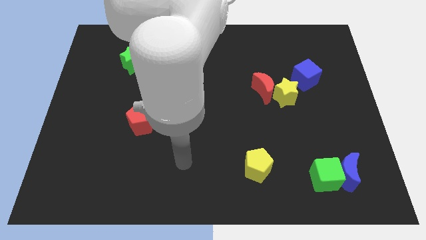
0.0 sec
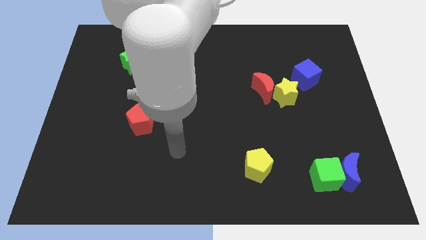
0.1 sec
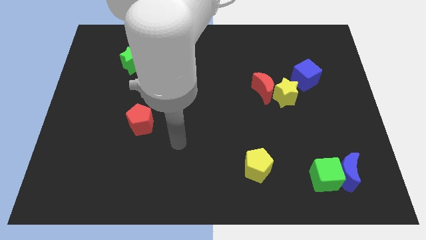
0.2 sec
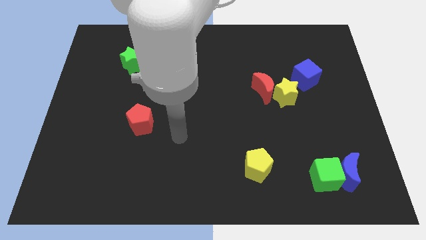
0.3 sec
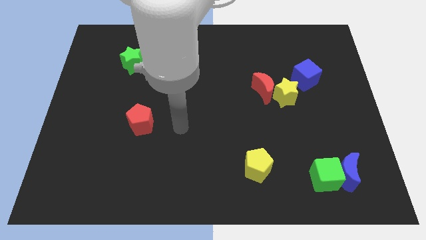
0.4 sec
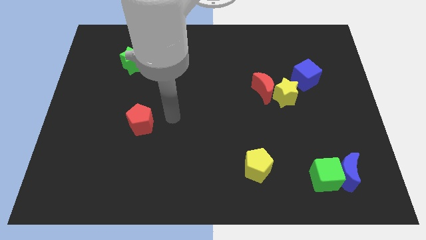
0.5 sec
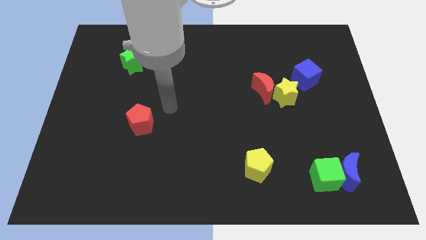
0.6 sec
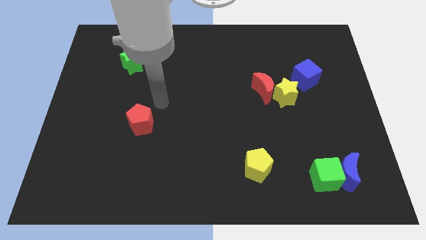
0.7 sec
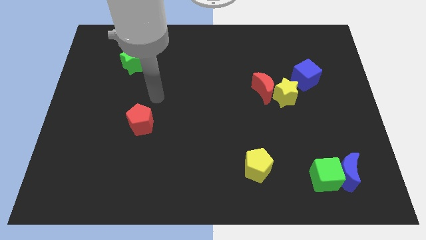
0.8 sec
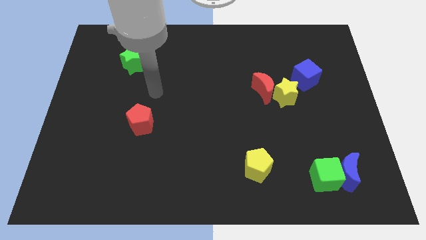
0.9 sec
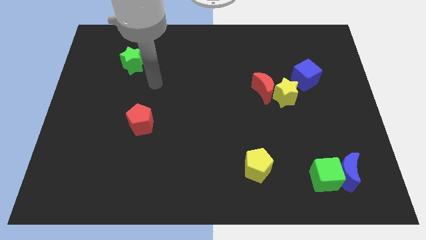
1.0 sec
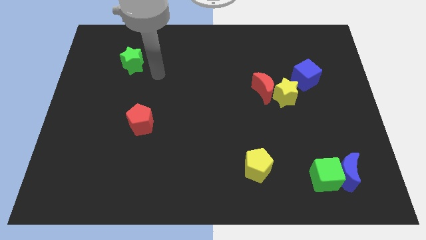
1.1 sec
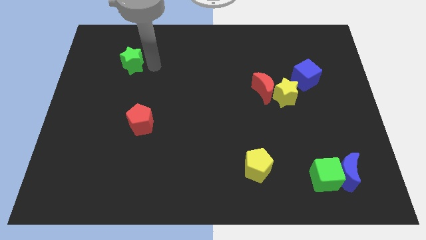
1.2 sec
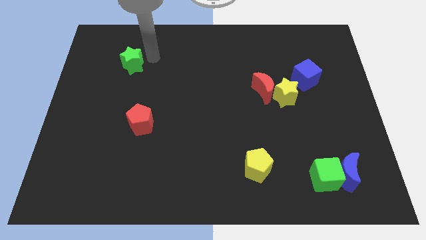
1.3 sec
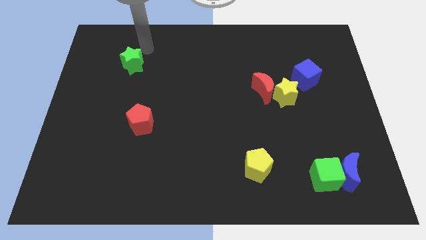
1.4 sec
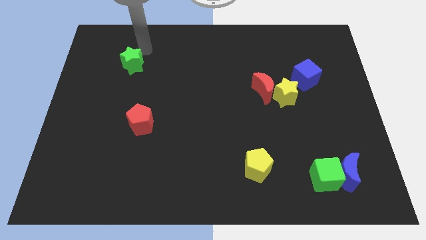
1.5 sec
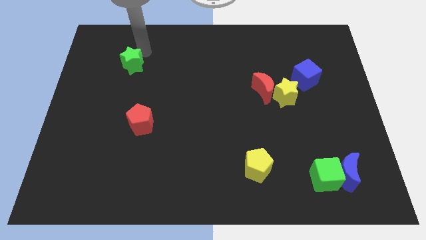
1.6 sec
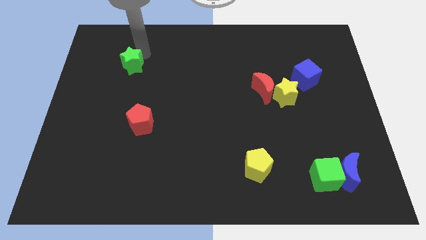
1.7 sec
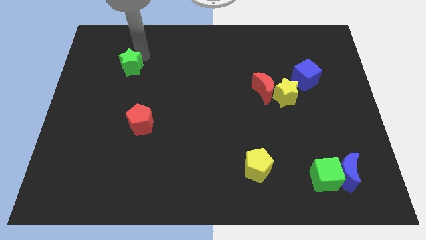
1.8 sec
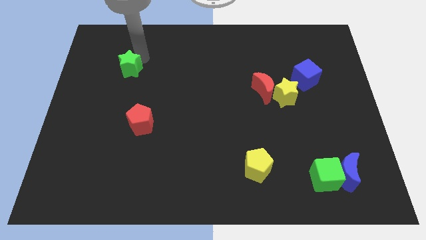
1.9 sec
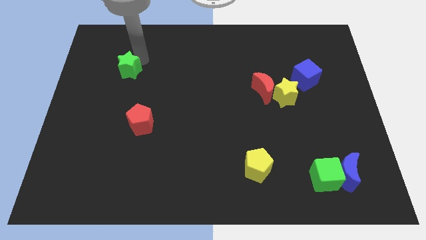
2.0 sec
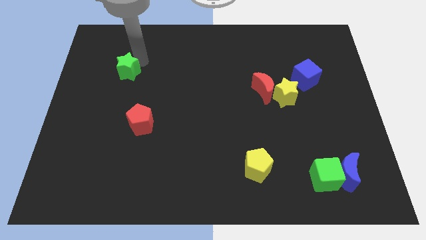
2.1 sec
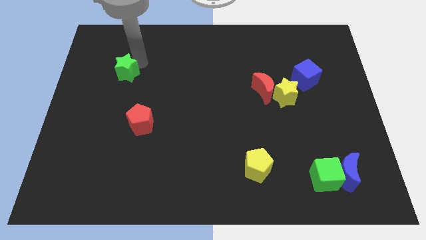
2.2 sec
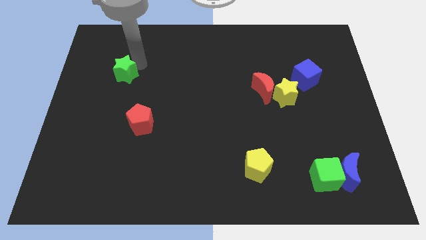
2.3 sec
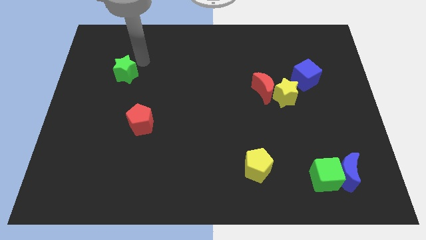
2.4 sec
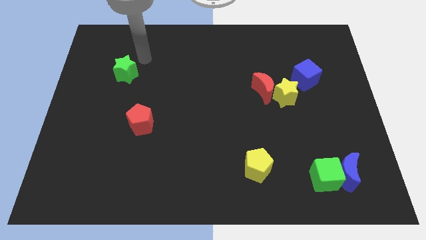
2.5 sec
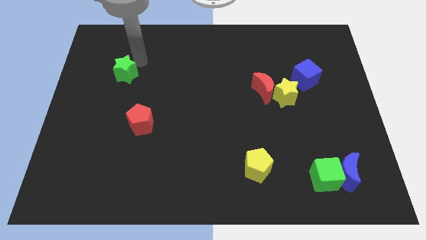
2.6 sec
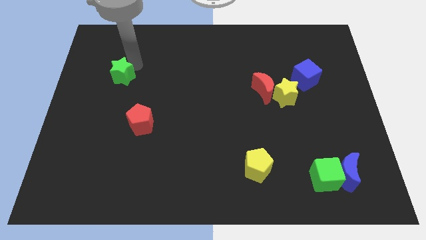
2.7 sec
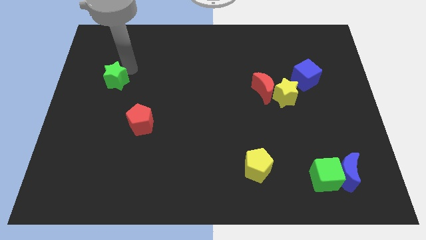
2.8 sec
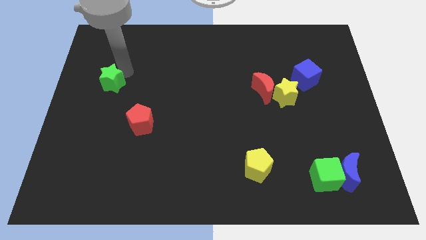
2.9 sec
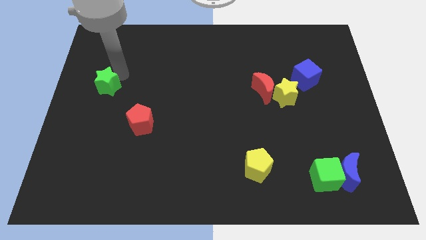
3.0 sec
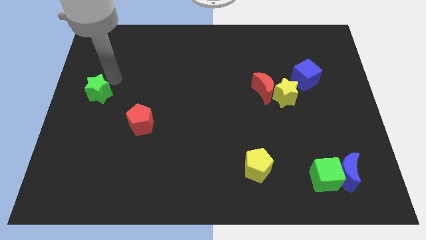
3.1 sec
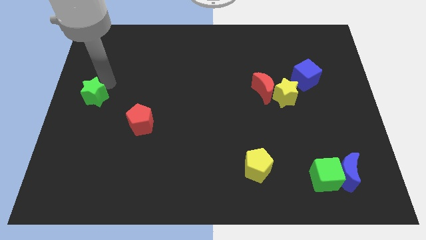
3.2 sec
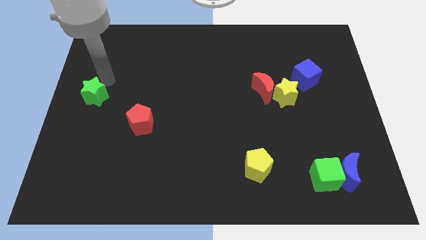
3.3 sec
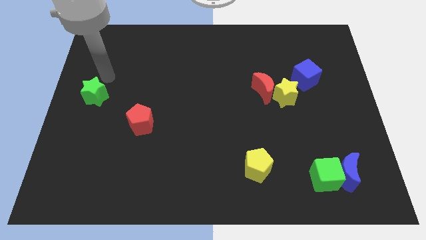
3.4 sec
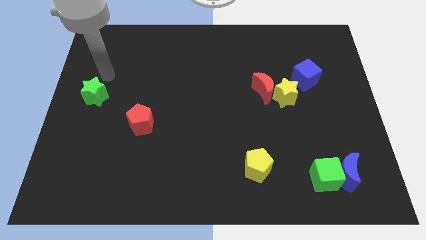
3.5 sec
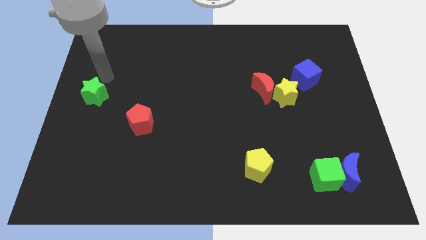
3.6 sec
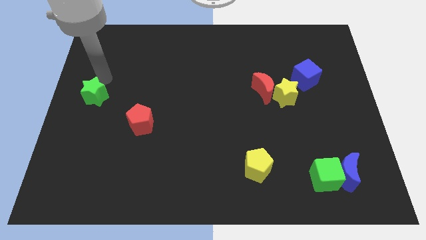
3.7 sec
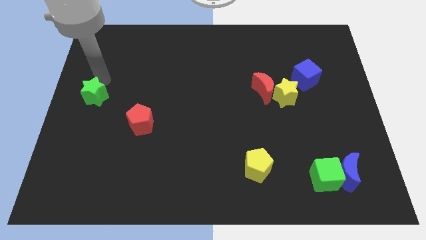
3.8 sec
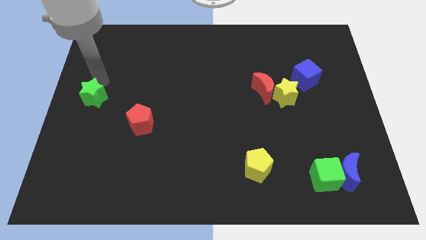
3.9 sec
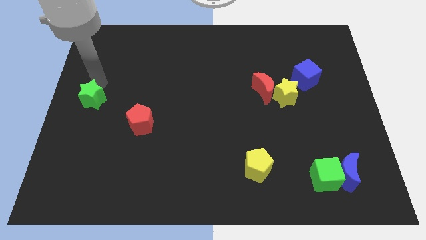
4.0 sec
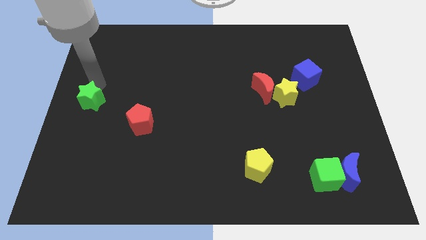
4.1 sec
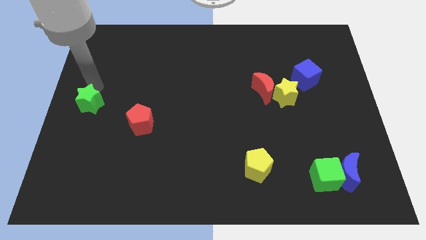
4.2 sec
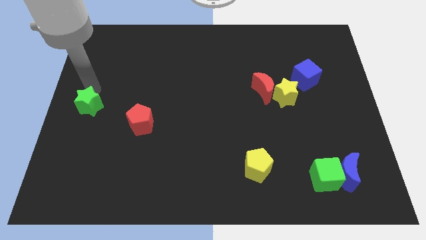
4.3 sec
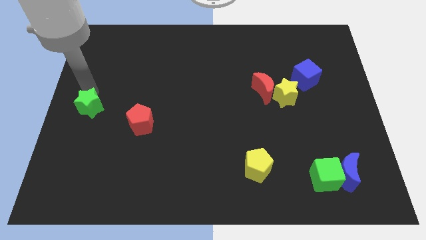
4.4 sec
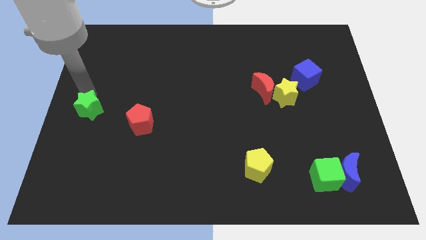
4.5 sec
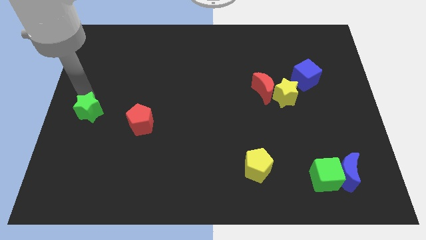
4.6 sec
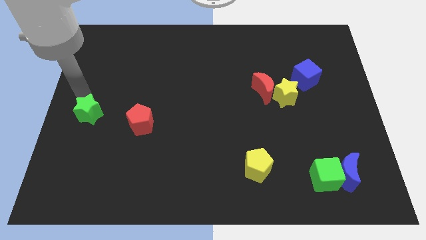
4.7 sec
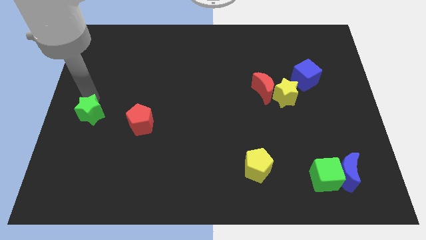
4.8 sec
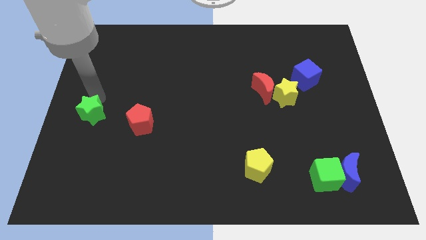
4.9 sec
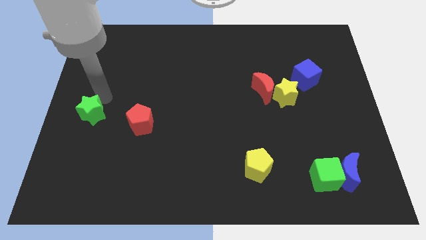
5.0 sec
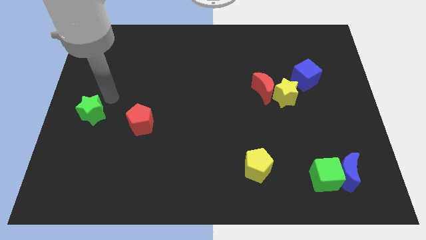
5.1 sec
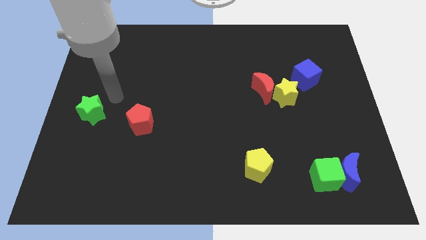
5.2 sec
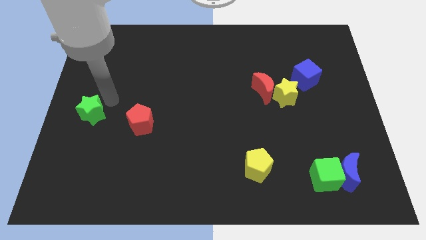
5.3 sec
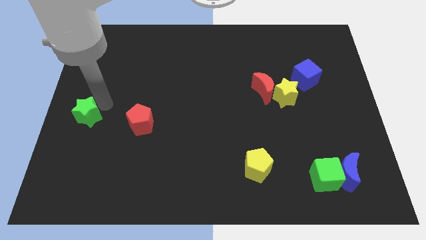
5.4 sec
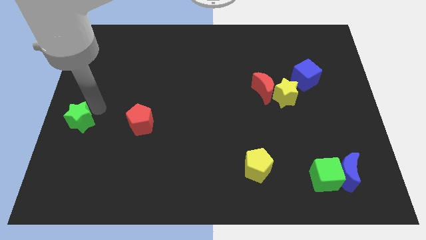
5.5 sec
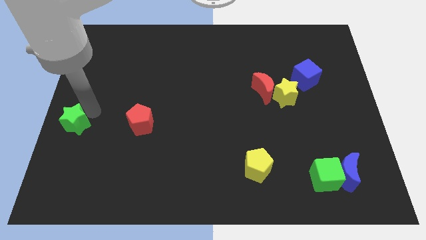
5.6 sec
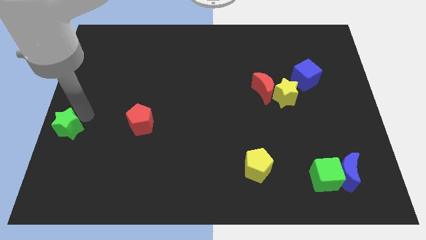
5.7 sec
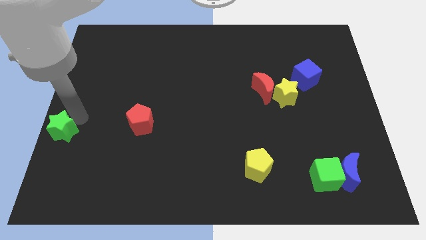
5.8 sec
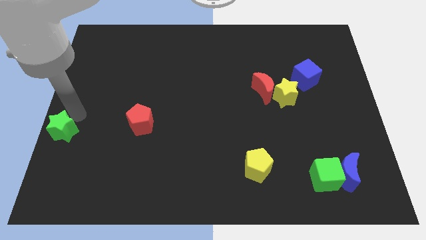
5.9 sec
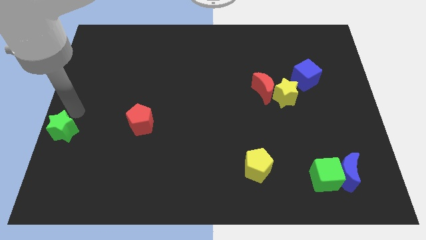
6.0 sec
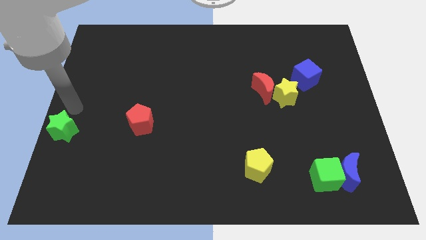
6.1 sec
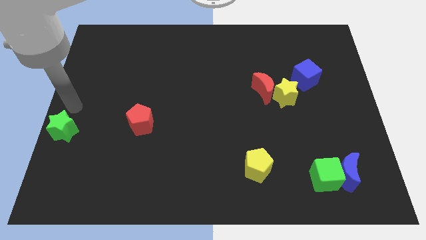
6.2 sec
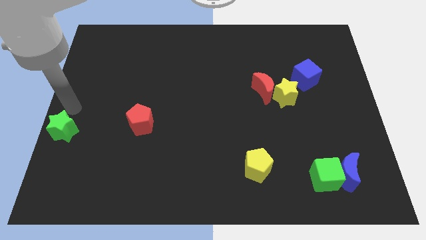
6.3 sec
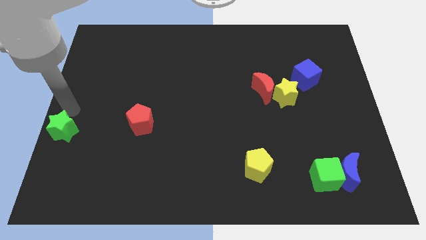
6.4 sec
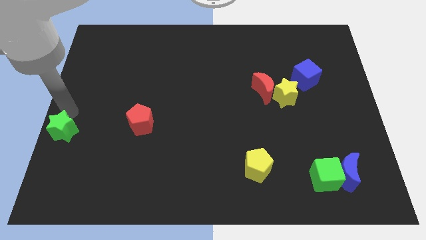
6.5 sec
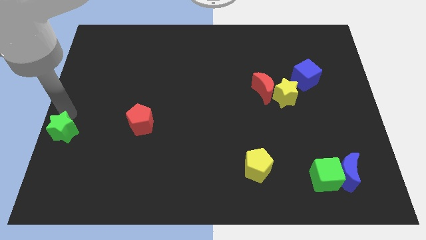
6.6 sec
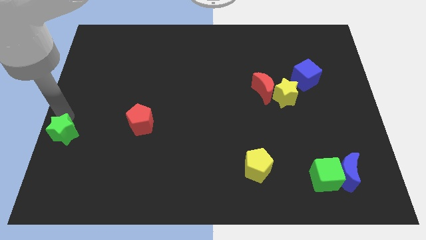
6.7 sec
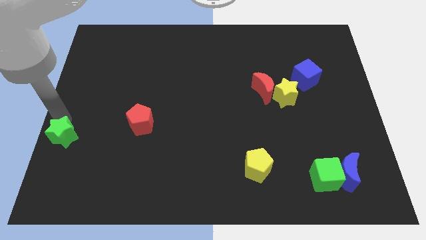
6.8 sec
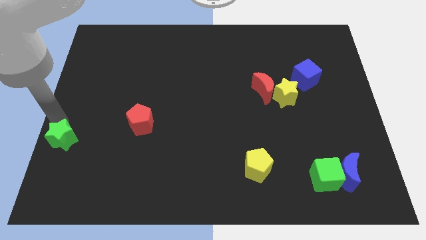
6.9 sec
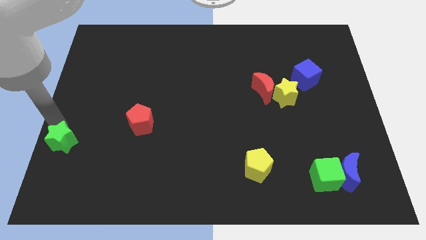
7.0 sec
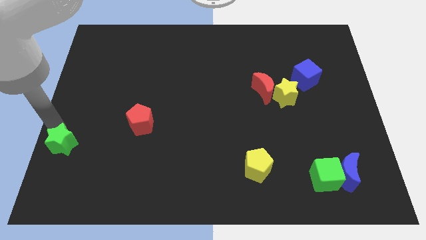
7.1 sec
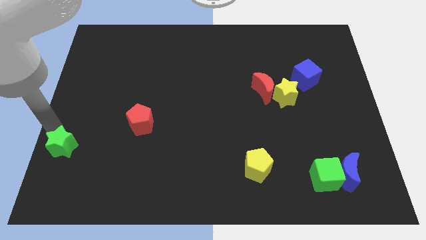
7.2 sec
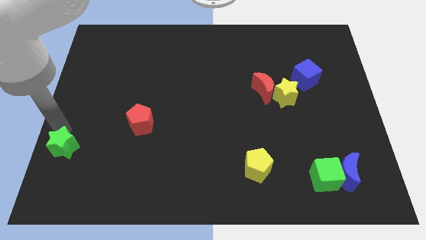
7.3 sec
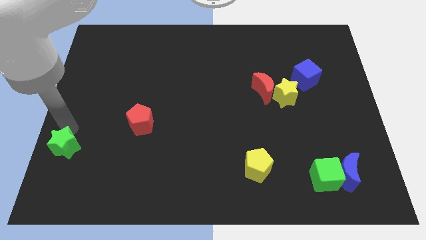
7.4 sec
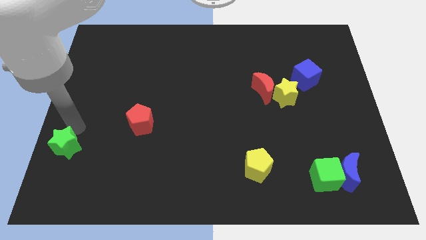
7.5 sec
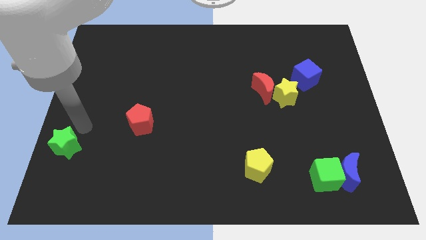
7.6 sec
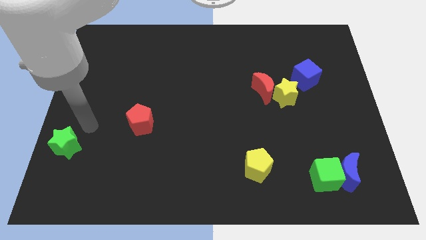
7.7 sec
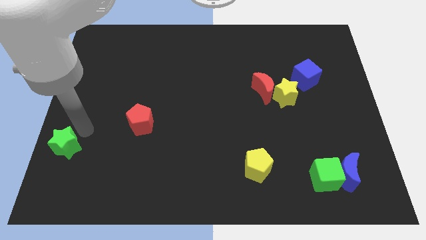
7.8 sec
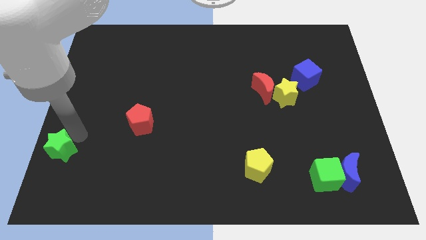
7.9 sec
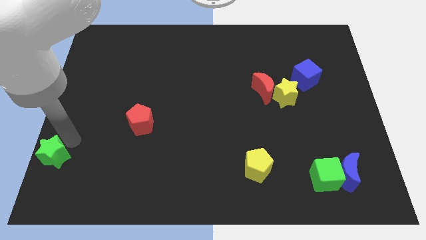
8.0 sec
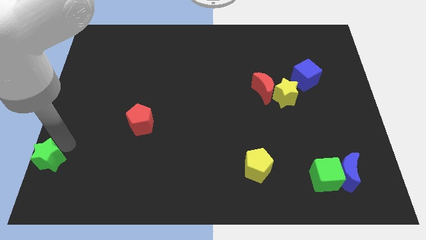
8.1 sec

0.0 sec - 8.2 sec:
move the green star to the lower left corner
